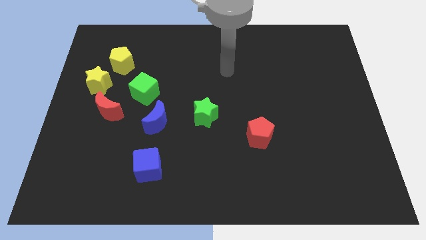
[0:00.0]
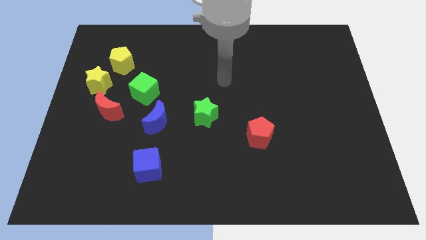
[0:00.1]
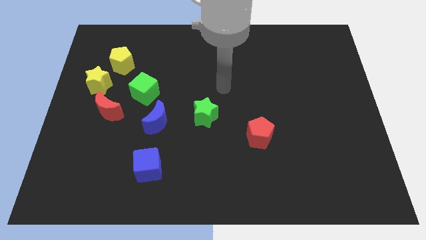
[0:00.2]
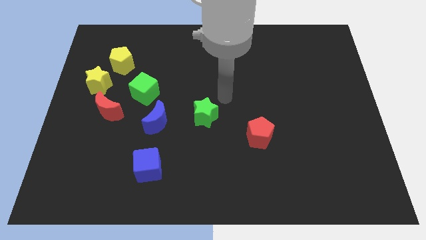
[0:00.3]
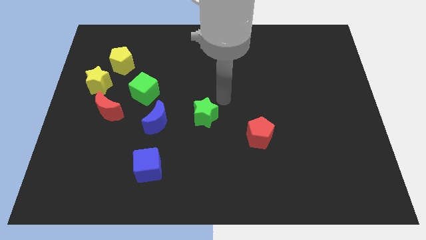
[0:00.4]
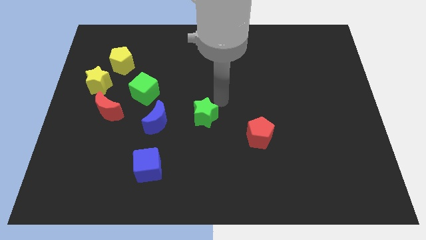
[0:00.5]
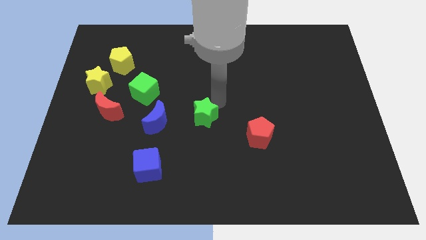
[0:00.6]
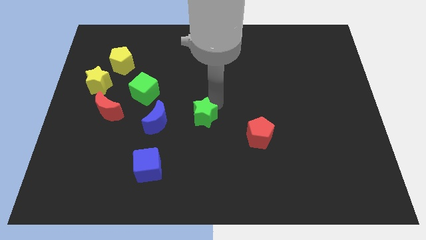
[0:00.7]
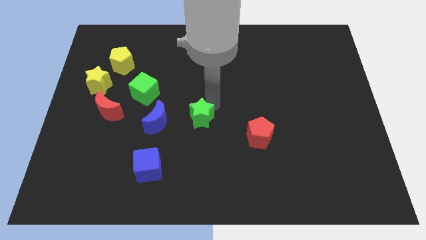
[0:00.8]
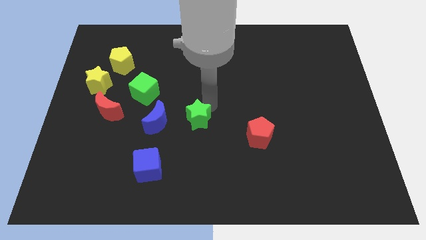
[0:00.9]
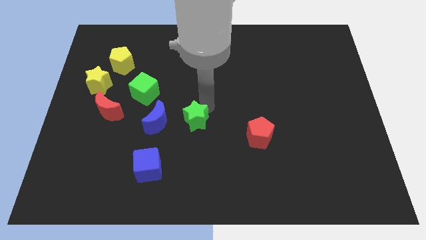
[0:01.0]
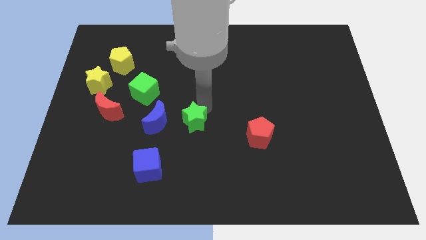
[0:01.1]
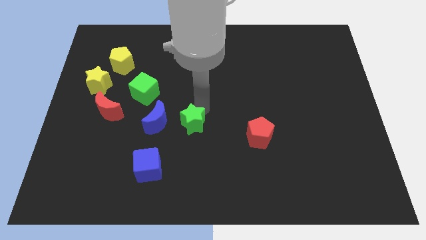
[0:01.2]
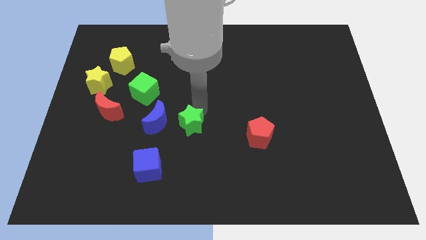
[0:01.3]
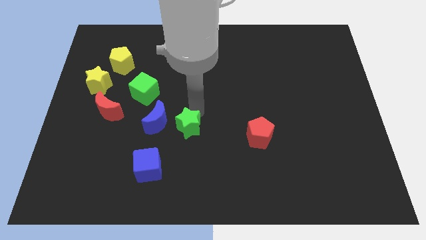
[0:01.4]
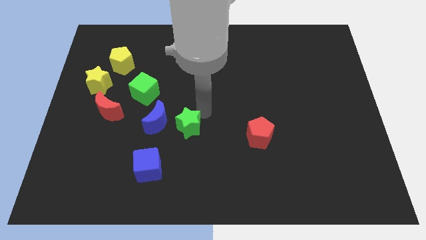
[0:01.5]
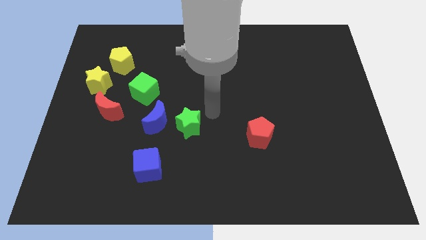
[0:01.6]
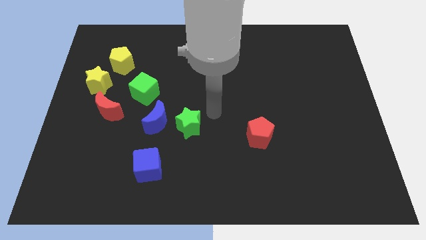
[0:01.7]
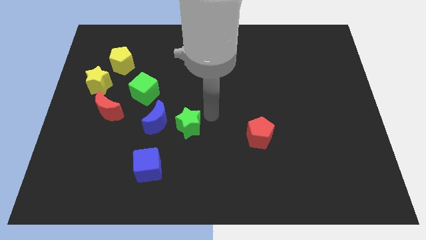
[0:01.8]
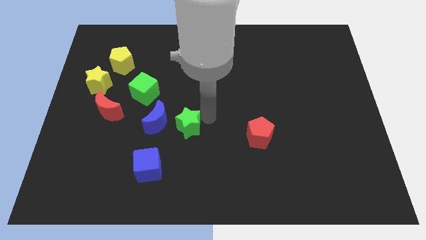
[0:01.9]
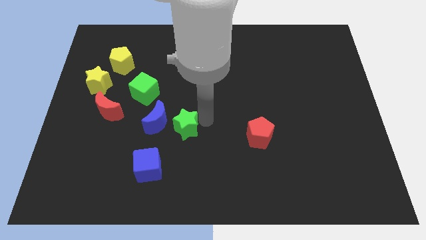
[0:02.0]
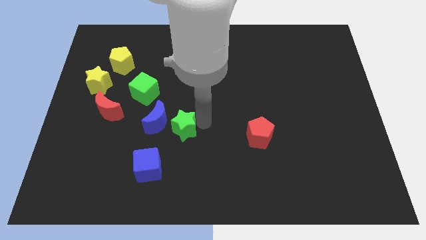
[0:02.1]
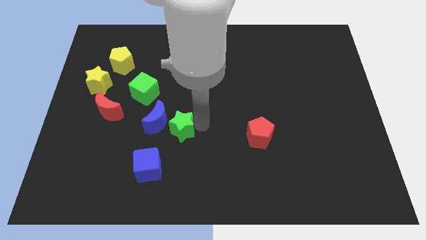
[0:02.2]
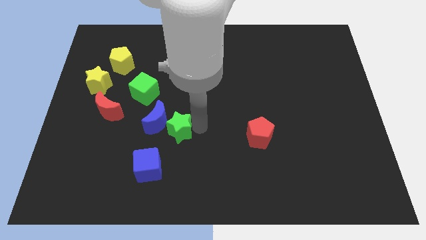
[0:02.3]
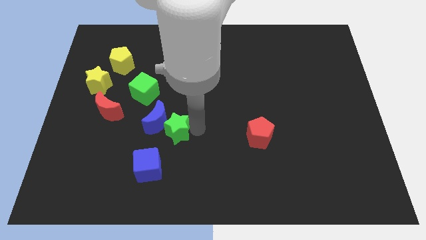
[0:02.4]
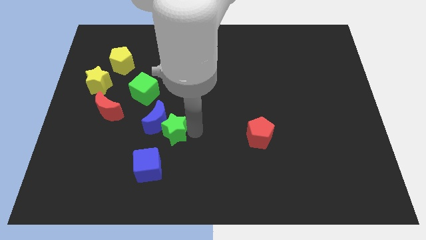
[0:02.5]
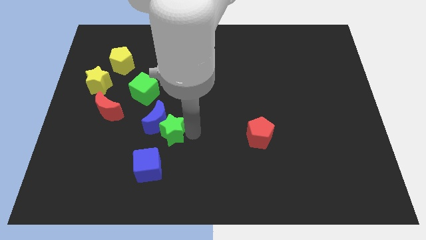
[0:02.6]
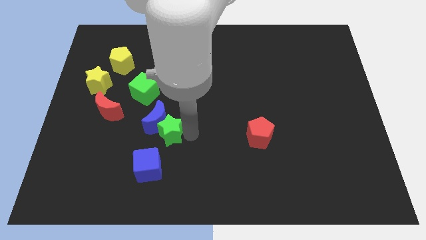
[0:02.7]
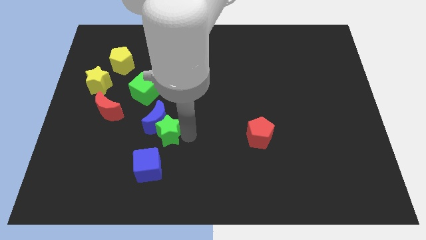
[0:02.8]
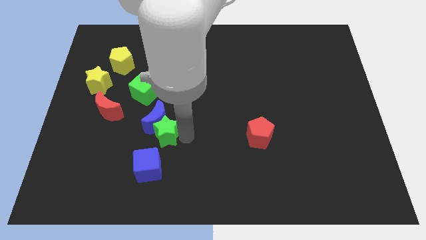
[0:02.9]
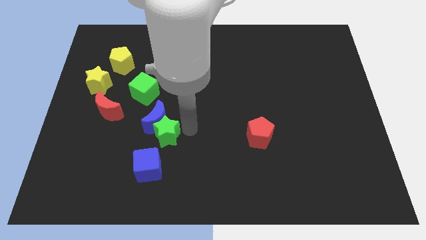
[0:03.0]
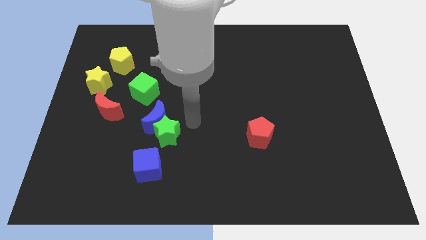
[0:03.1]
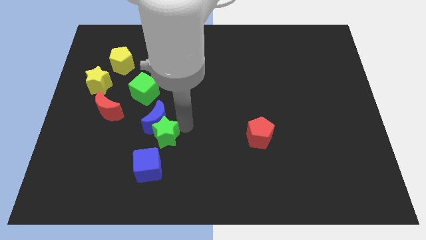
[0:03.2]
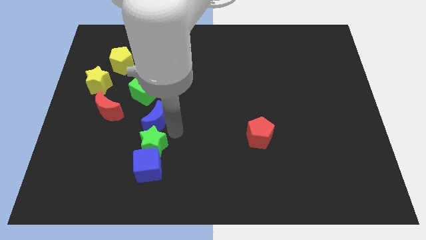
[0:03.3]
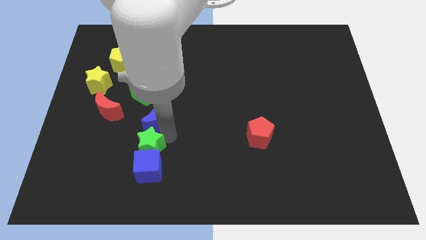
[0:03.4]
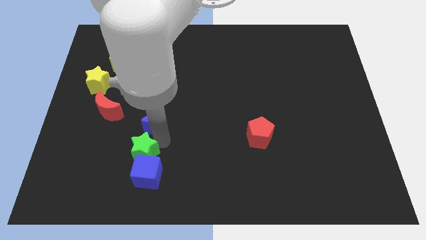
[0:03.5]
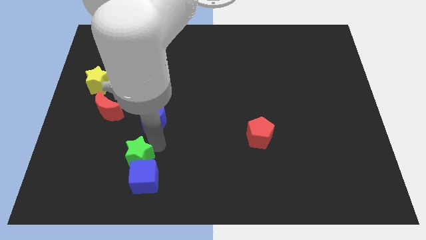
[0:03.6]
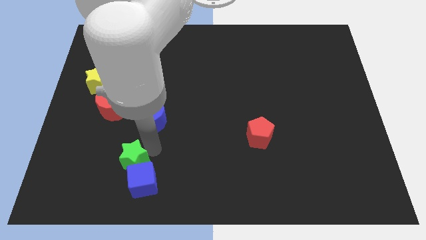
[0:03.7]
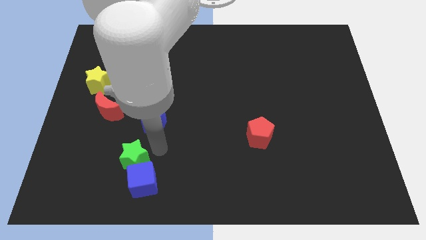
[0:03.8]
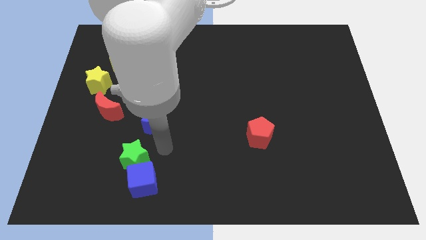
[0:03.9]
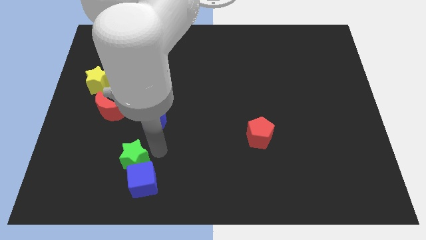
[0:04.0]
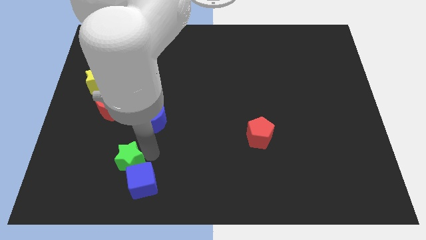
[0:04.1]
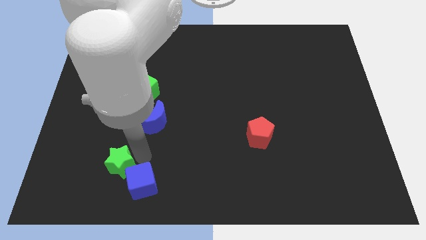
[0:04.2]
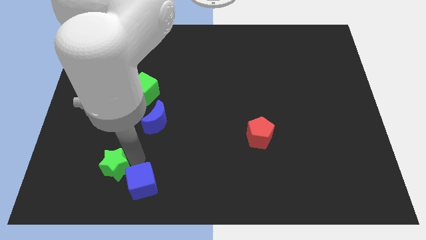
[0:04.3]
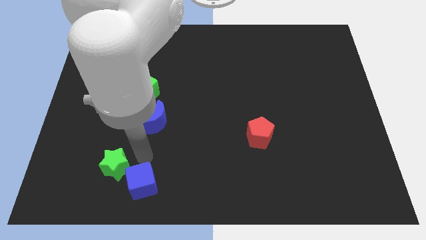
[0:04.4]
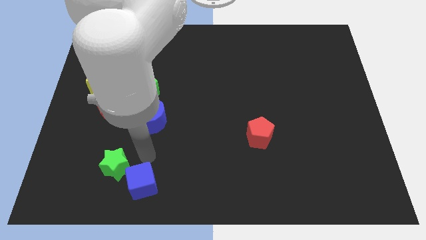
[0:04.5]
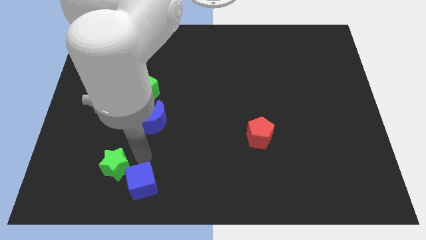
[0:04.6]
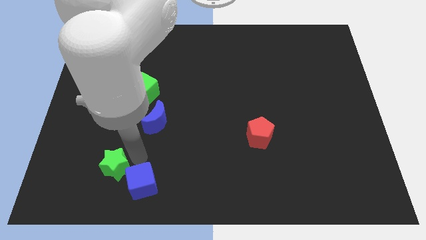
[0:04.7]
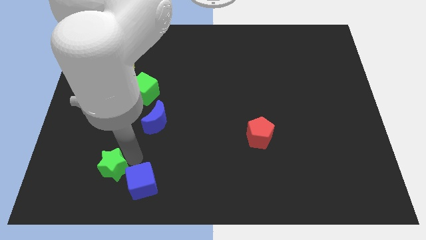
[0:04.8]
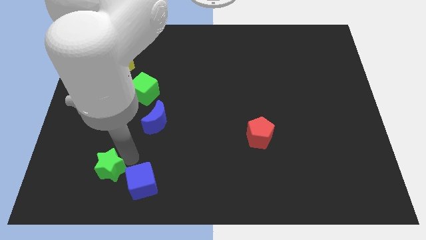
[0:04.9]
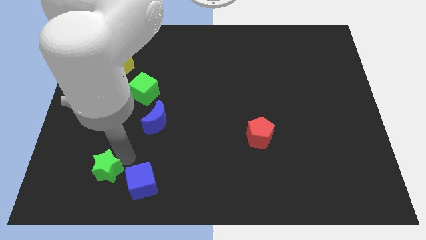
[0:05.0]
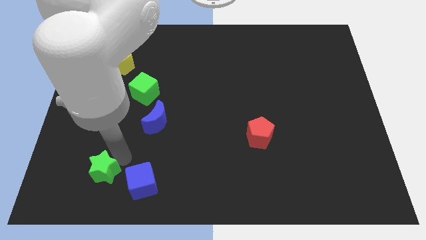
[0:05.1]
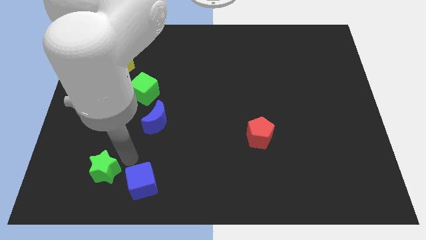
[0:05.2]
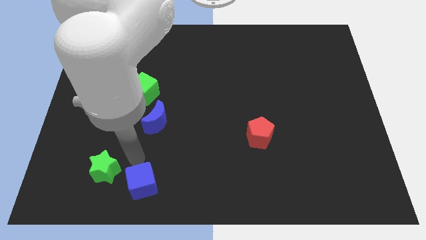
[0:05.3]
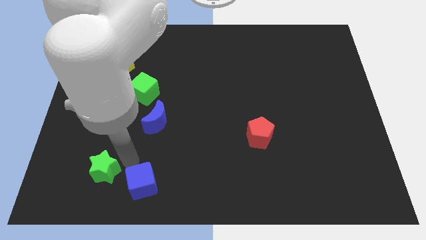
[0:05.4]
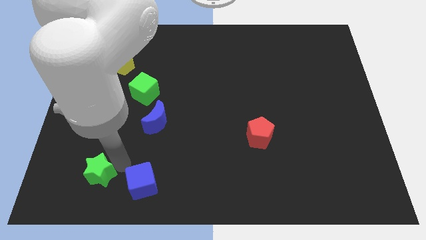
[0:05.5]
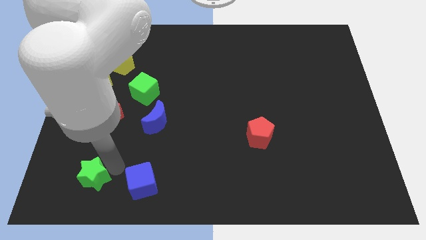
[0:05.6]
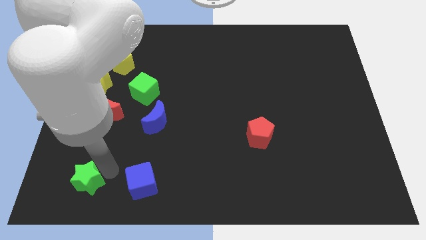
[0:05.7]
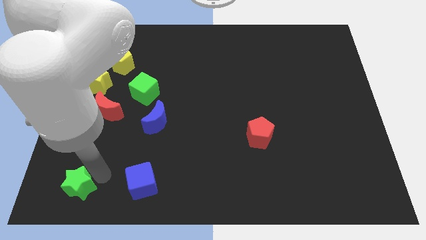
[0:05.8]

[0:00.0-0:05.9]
move the green star to the bottom left corner
